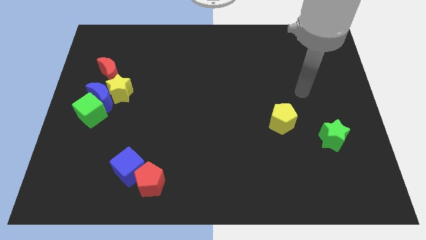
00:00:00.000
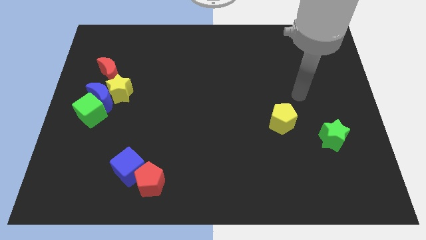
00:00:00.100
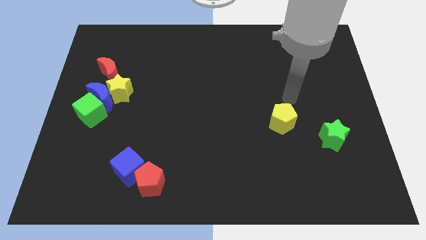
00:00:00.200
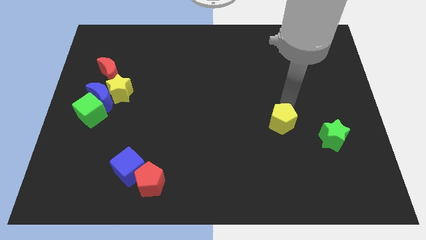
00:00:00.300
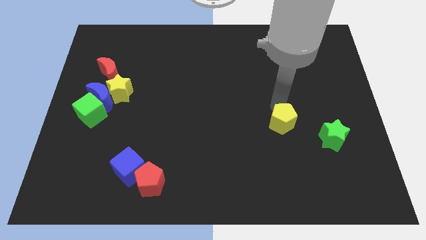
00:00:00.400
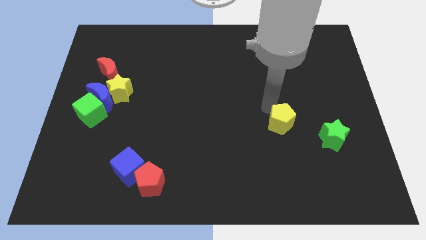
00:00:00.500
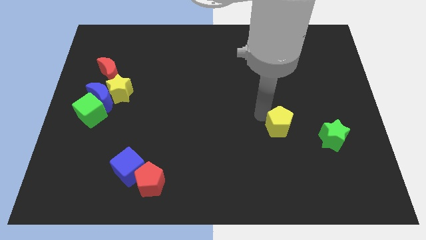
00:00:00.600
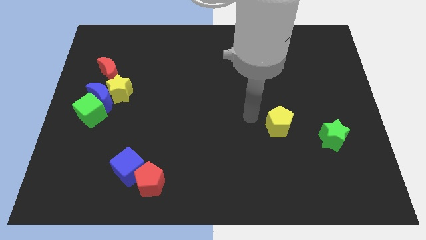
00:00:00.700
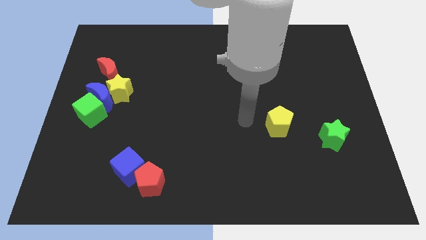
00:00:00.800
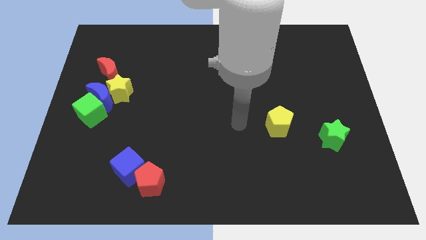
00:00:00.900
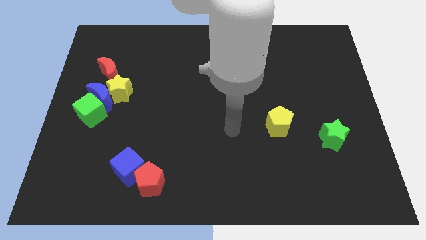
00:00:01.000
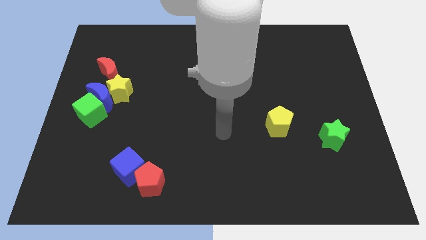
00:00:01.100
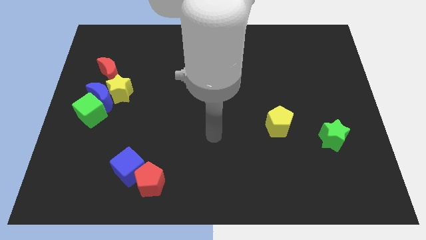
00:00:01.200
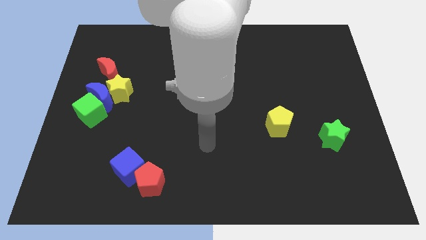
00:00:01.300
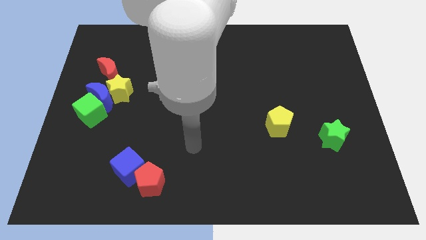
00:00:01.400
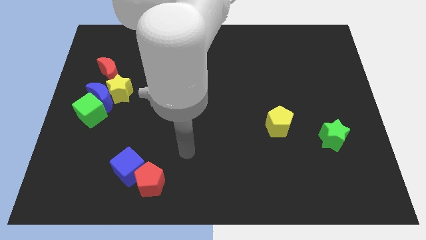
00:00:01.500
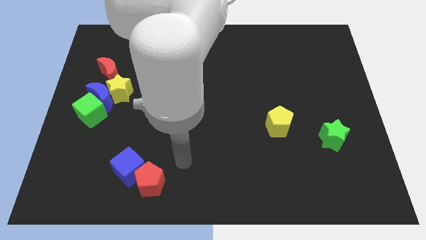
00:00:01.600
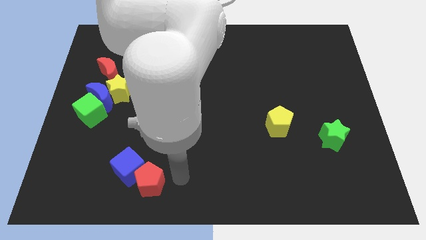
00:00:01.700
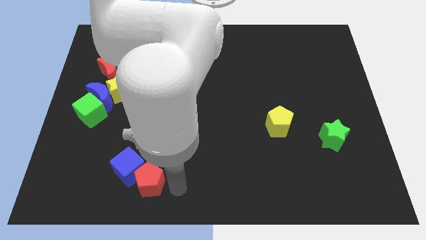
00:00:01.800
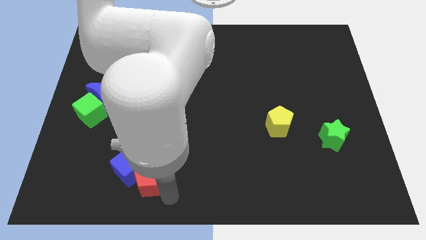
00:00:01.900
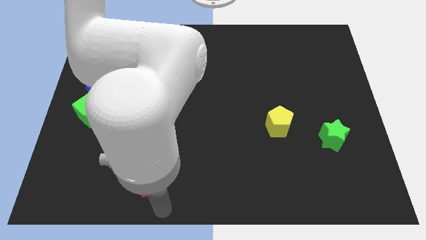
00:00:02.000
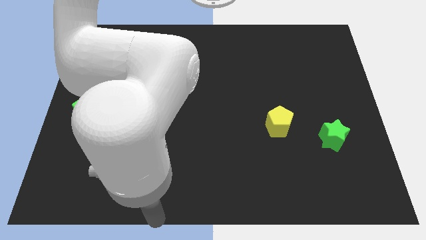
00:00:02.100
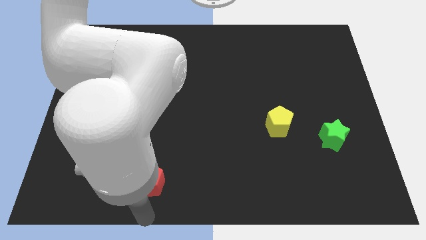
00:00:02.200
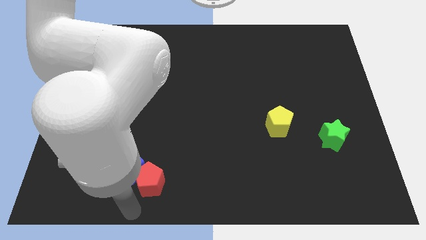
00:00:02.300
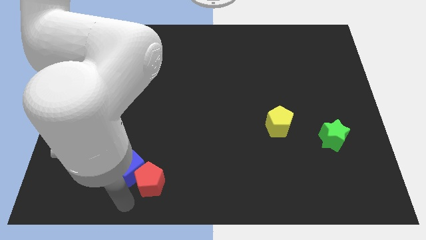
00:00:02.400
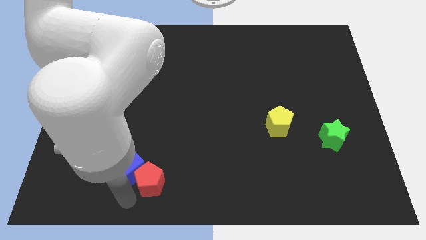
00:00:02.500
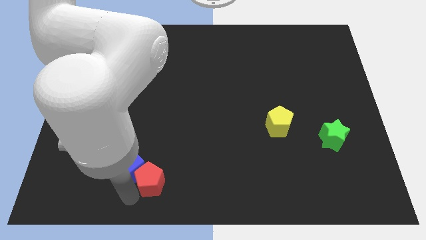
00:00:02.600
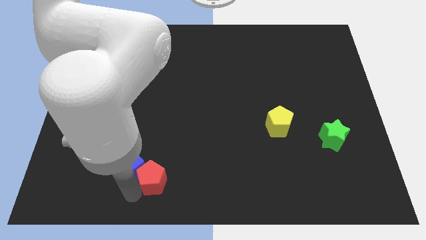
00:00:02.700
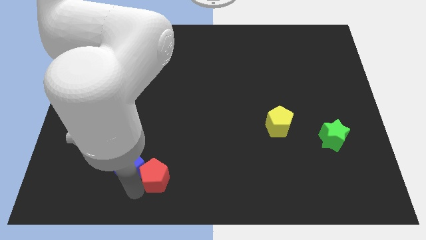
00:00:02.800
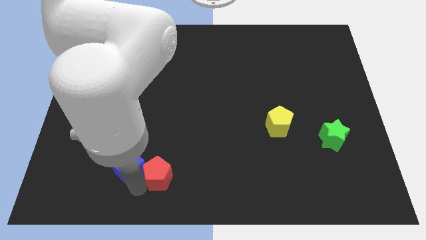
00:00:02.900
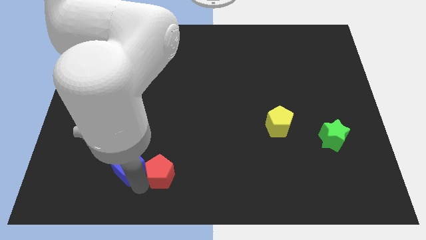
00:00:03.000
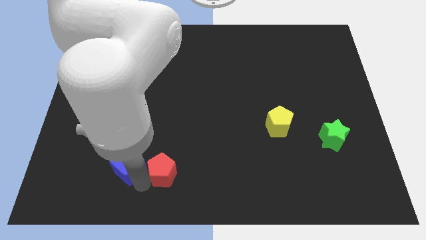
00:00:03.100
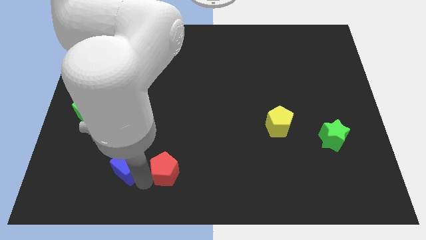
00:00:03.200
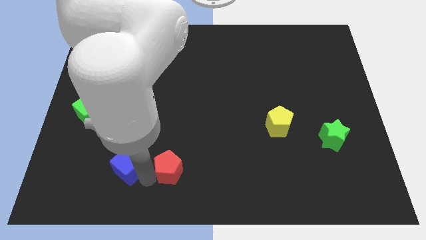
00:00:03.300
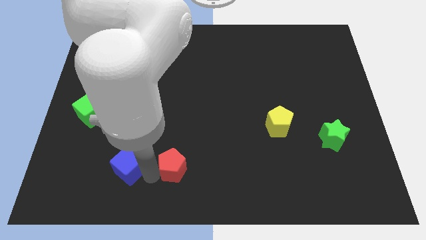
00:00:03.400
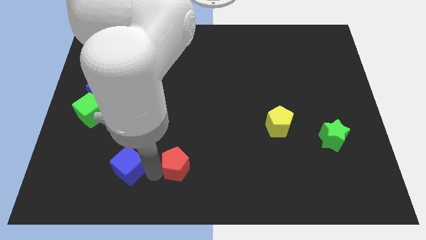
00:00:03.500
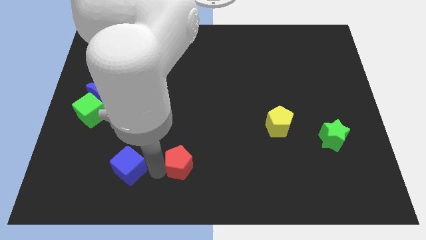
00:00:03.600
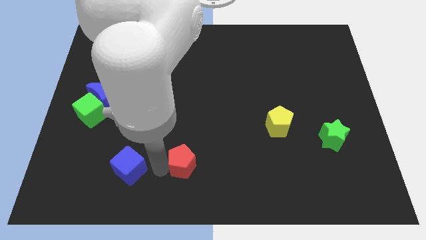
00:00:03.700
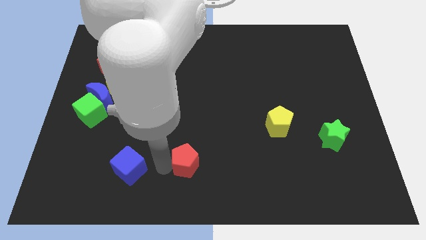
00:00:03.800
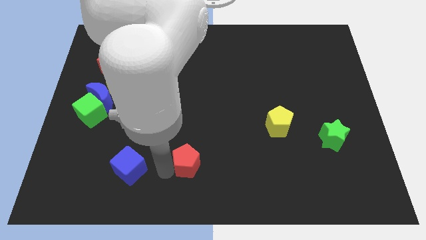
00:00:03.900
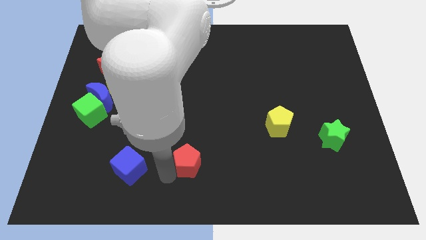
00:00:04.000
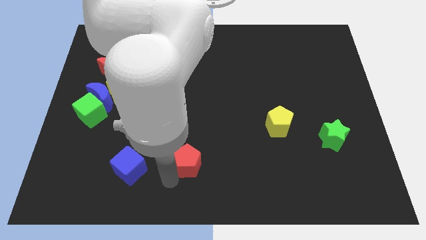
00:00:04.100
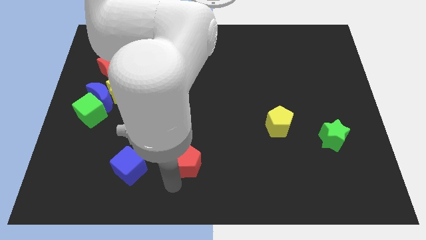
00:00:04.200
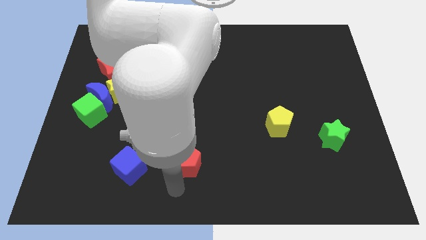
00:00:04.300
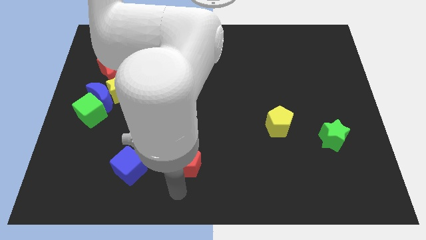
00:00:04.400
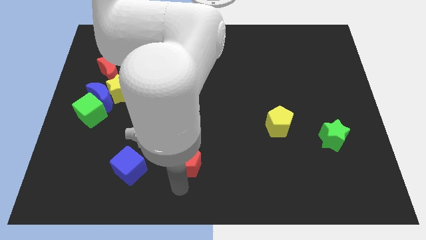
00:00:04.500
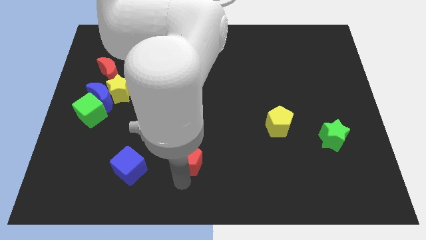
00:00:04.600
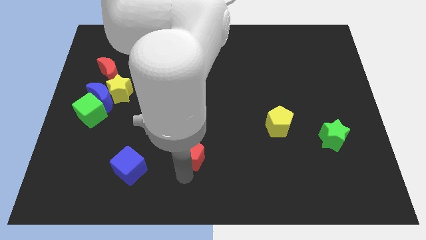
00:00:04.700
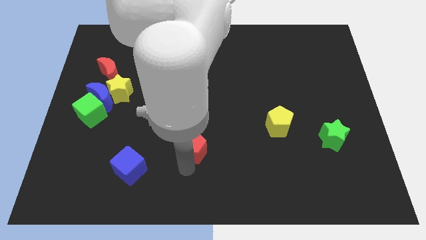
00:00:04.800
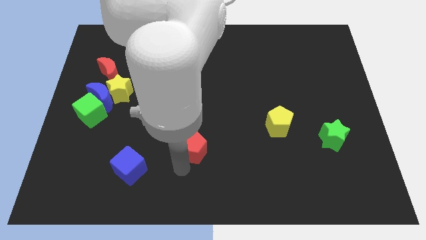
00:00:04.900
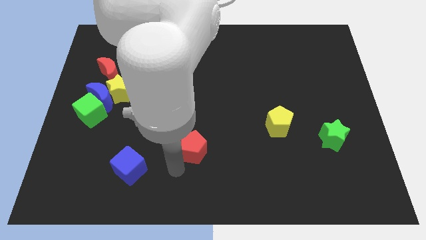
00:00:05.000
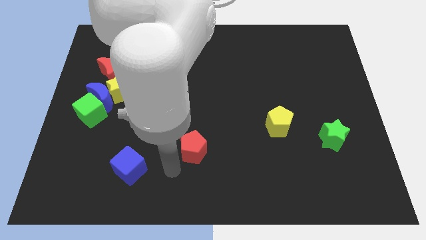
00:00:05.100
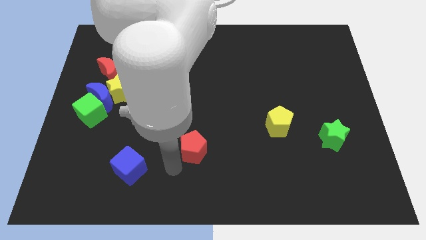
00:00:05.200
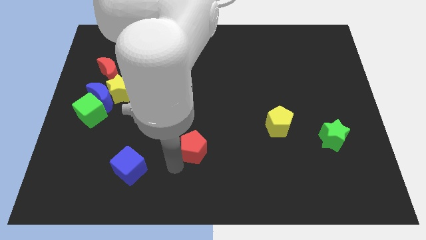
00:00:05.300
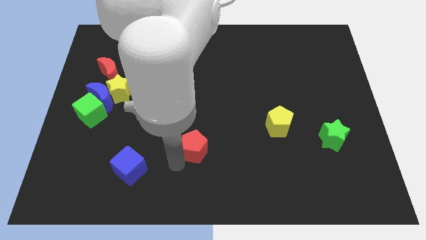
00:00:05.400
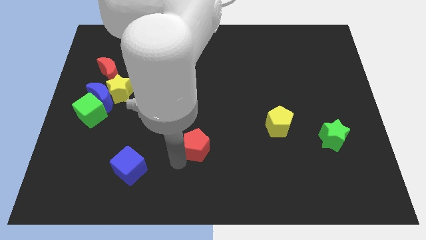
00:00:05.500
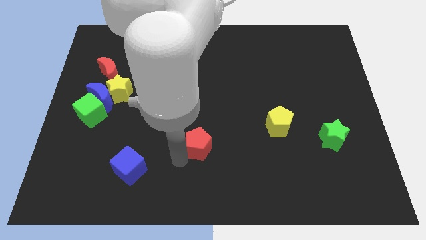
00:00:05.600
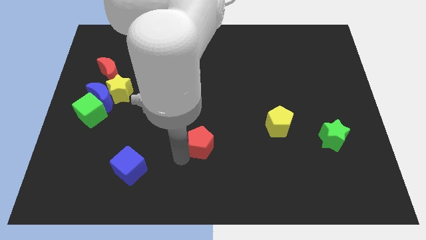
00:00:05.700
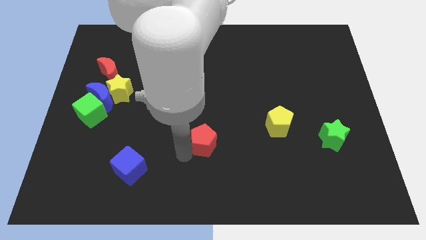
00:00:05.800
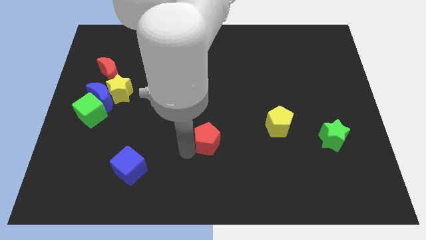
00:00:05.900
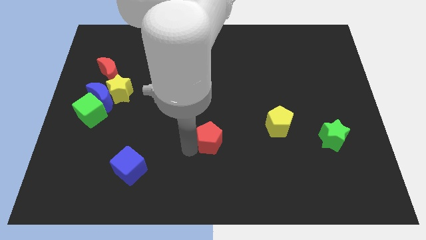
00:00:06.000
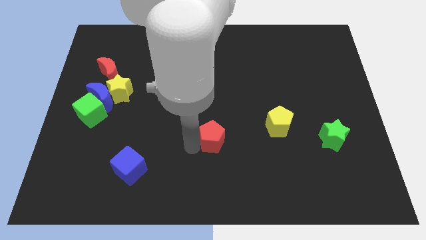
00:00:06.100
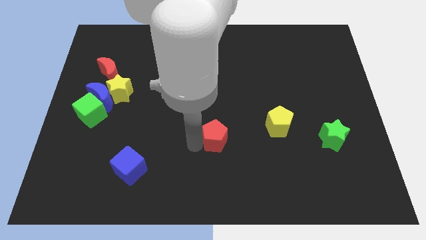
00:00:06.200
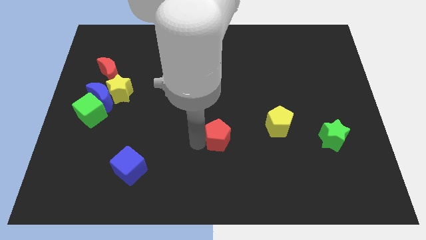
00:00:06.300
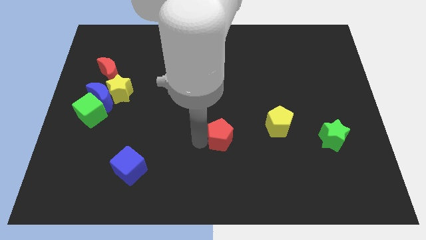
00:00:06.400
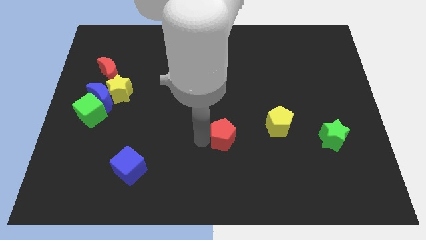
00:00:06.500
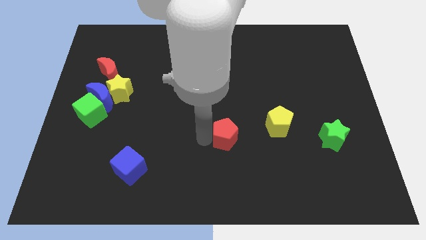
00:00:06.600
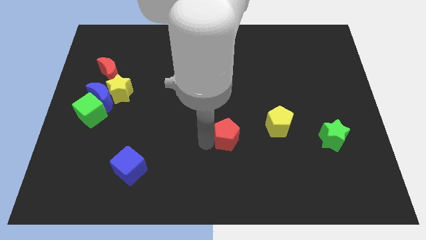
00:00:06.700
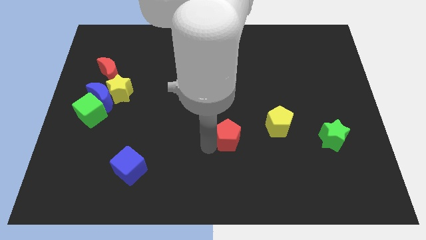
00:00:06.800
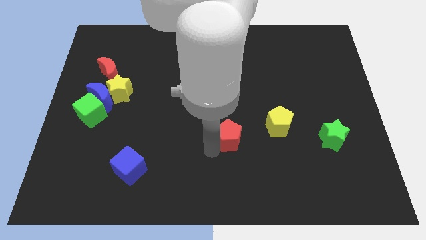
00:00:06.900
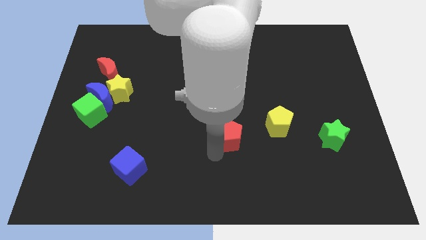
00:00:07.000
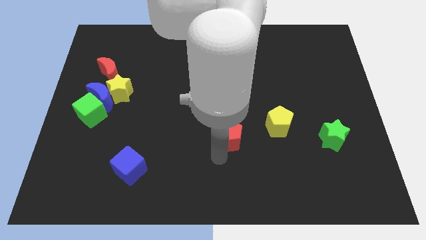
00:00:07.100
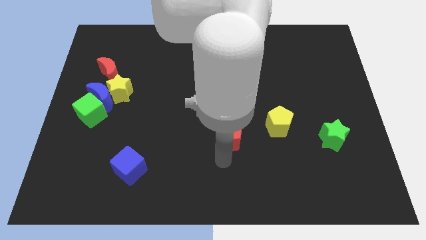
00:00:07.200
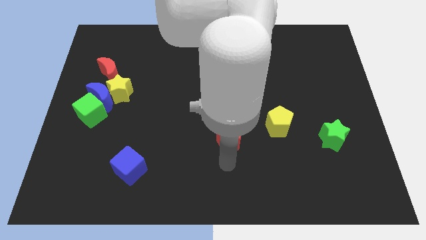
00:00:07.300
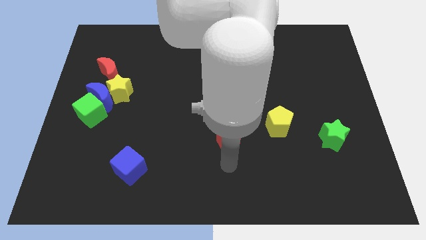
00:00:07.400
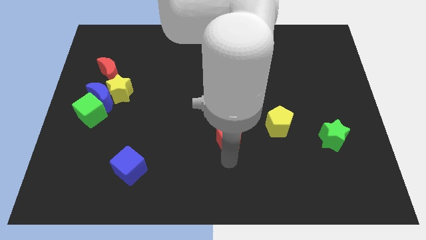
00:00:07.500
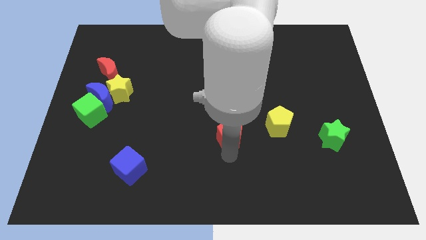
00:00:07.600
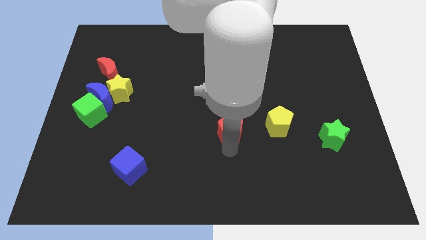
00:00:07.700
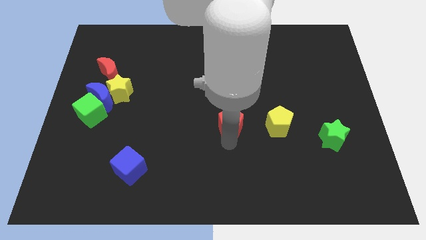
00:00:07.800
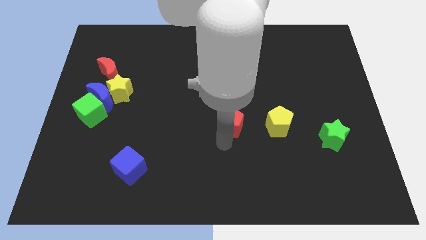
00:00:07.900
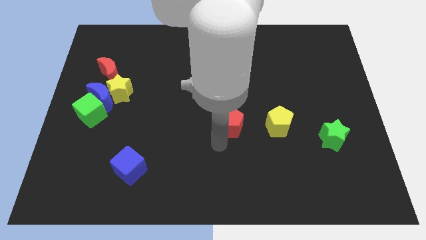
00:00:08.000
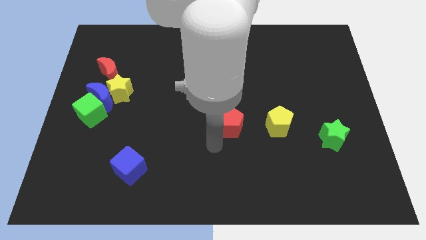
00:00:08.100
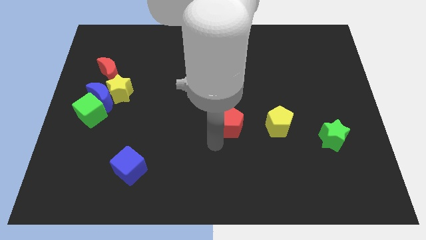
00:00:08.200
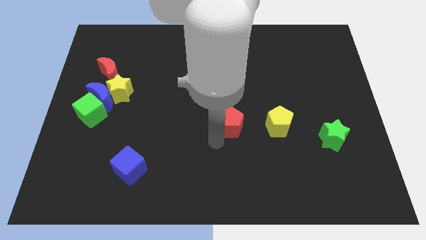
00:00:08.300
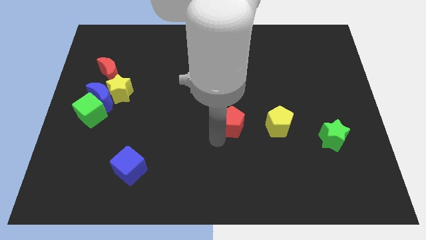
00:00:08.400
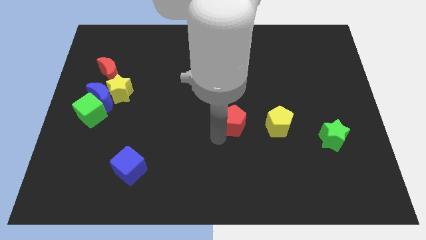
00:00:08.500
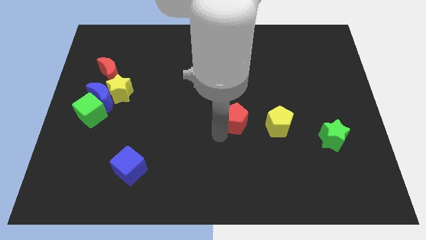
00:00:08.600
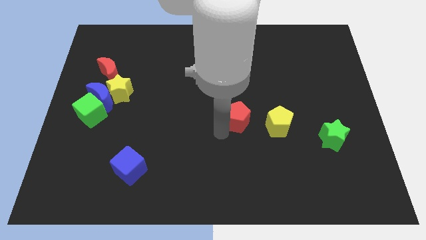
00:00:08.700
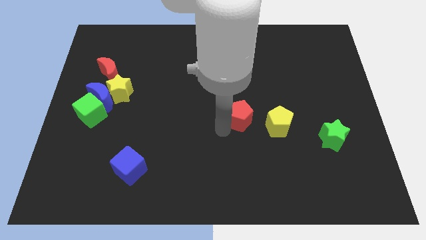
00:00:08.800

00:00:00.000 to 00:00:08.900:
put the red pentagon to the top left side of the yellow pentagon
